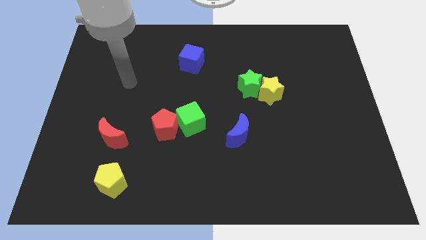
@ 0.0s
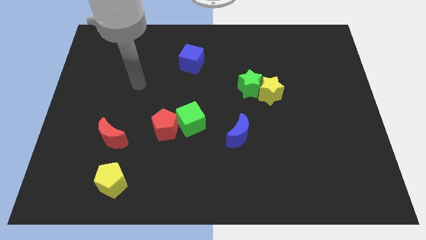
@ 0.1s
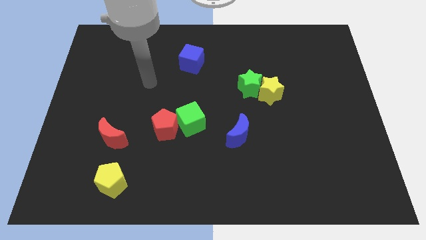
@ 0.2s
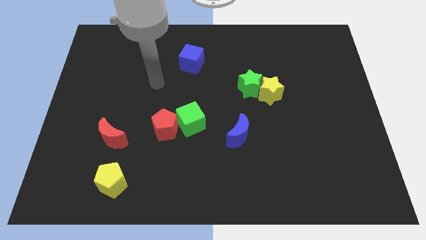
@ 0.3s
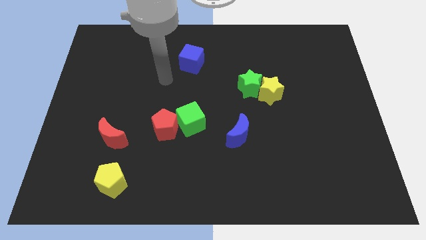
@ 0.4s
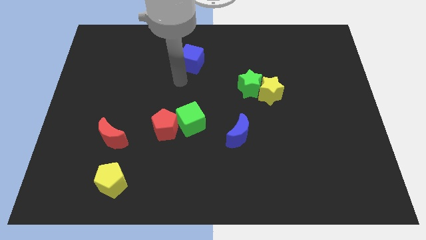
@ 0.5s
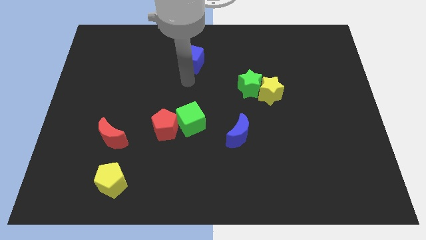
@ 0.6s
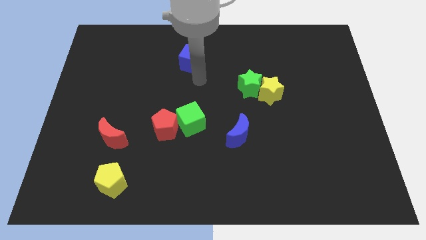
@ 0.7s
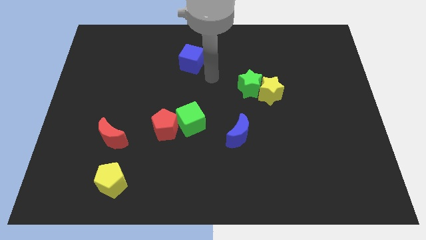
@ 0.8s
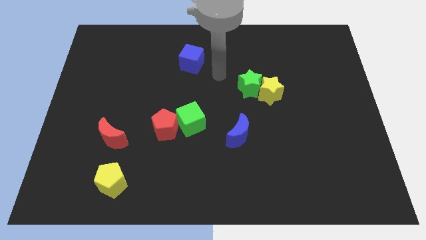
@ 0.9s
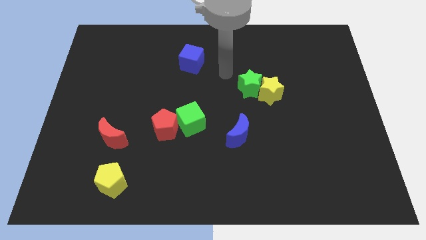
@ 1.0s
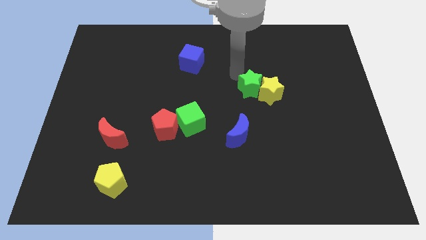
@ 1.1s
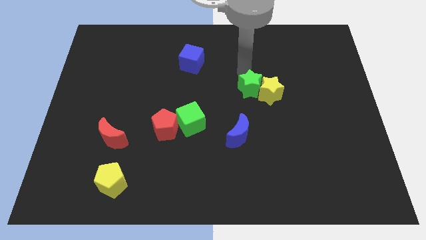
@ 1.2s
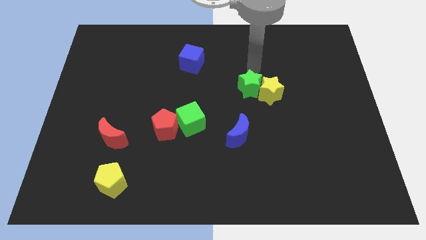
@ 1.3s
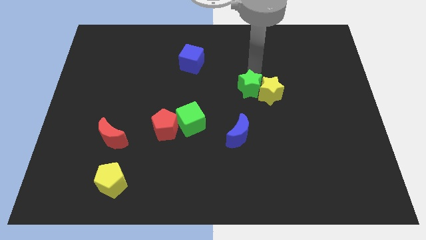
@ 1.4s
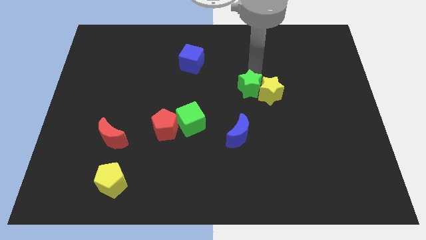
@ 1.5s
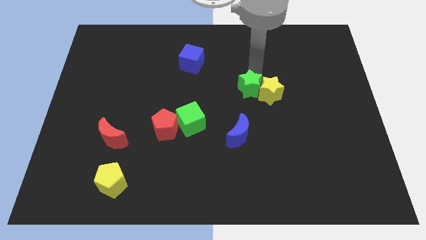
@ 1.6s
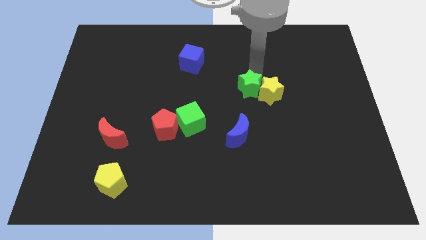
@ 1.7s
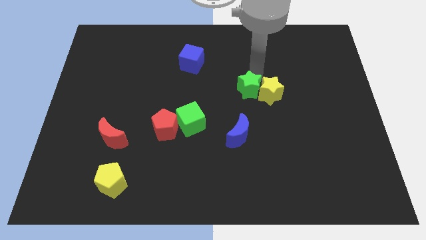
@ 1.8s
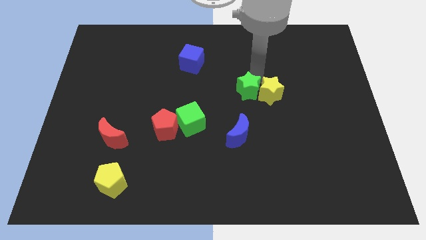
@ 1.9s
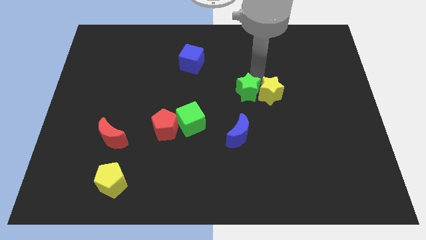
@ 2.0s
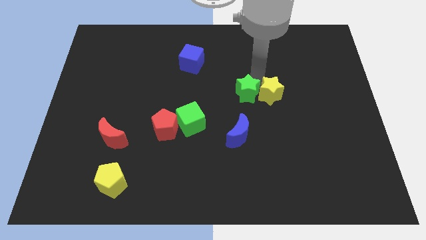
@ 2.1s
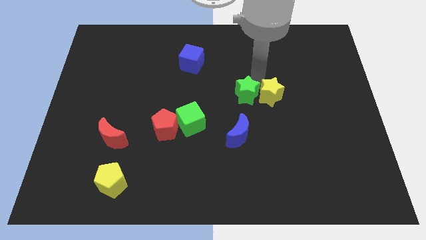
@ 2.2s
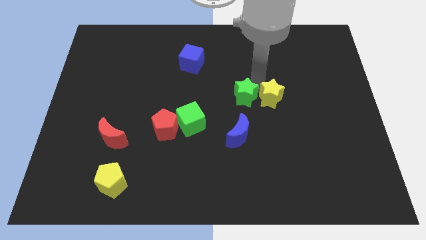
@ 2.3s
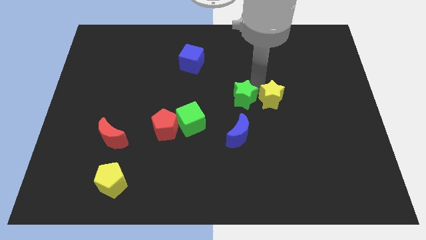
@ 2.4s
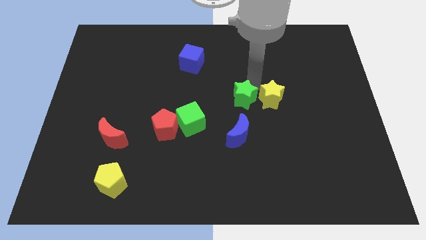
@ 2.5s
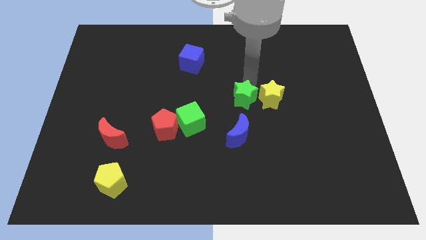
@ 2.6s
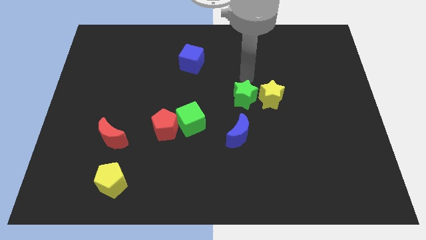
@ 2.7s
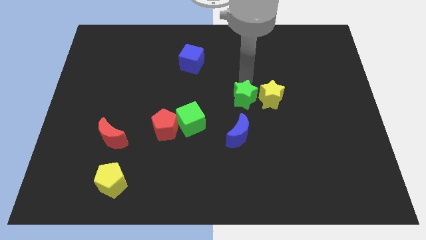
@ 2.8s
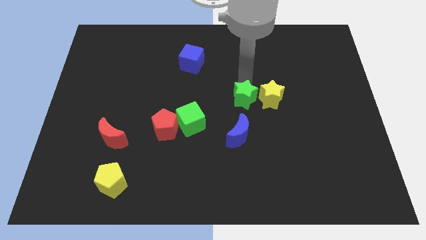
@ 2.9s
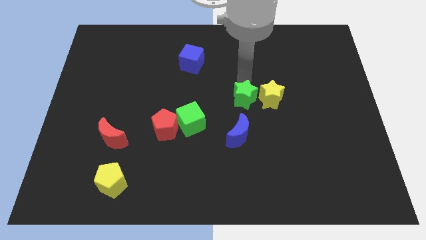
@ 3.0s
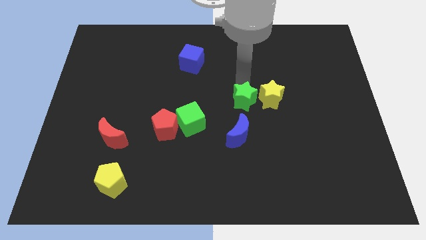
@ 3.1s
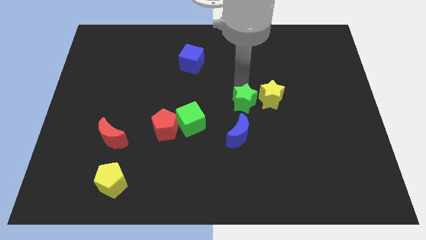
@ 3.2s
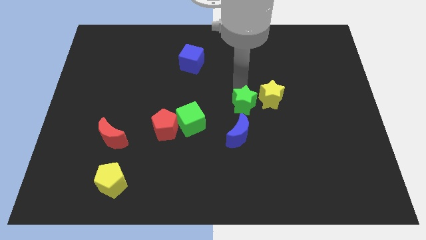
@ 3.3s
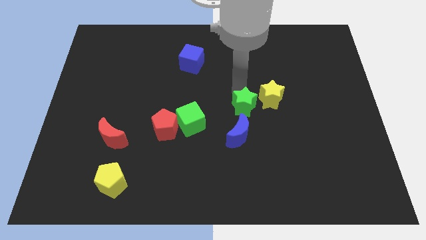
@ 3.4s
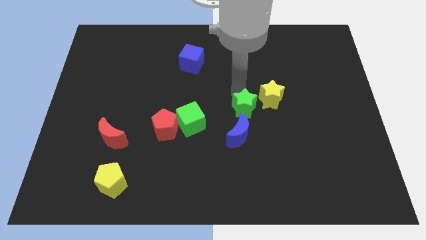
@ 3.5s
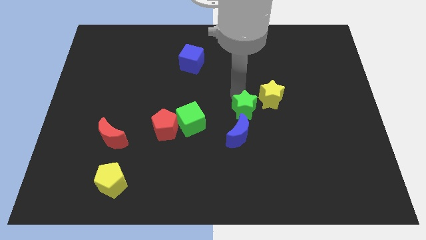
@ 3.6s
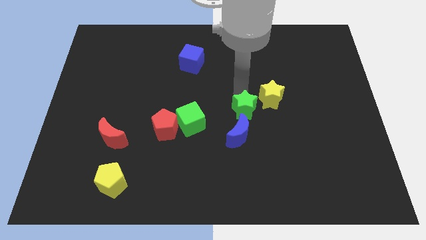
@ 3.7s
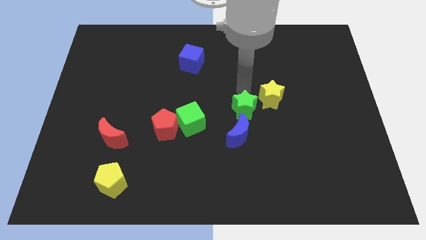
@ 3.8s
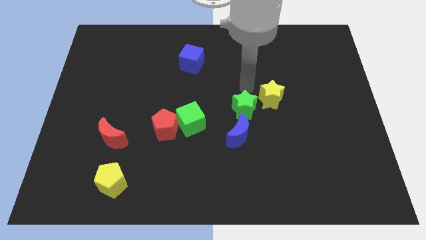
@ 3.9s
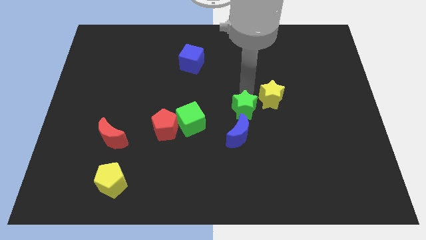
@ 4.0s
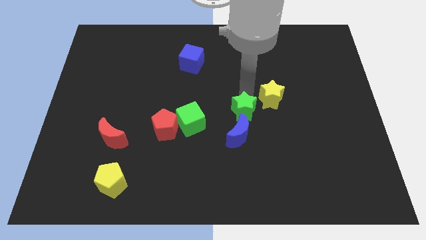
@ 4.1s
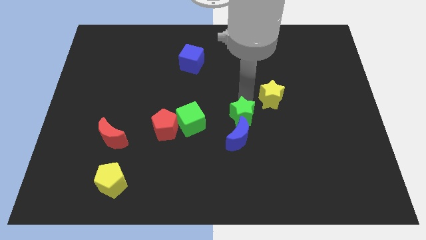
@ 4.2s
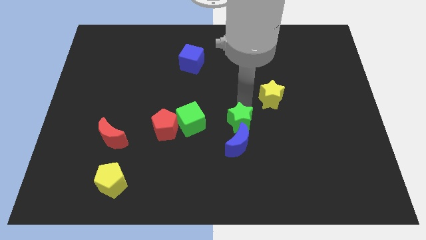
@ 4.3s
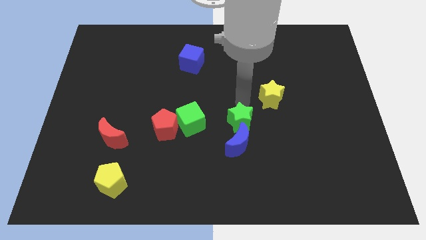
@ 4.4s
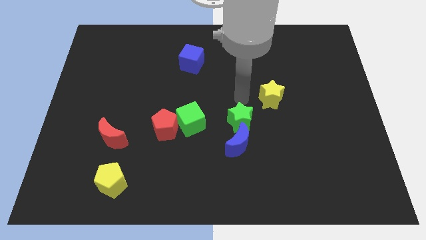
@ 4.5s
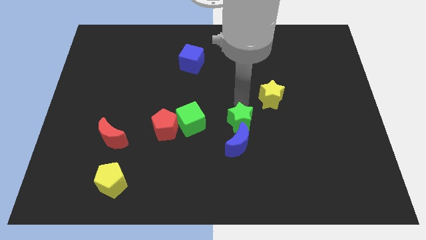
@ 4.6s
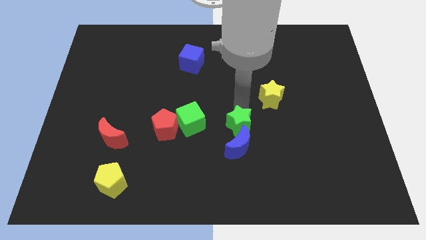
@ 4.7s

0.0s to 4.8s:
push the green star next to the blue moon

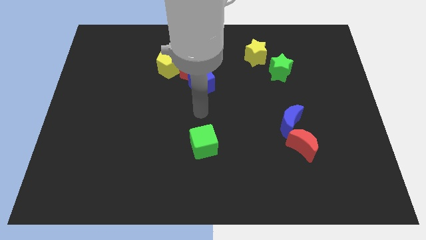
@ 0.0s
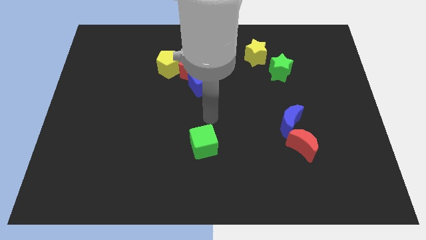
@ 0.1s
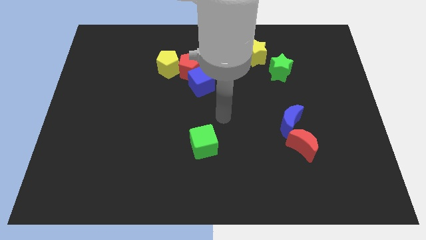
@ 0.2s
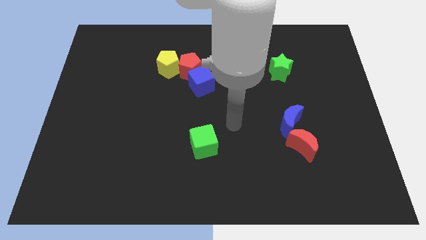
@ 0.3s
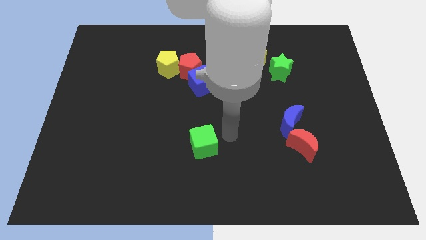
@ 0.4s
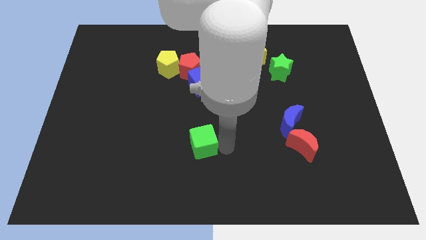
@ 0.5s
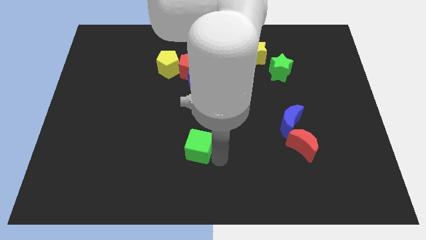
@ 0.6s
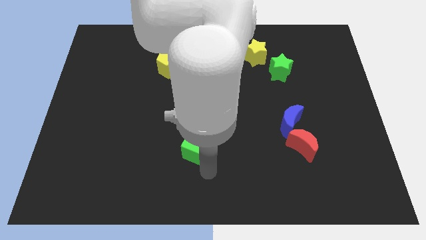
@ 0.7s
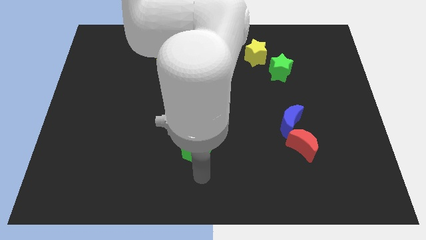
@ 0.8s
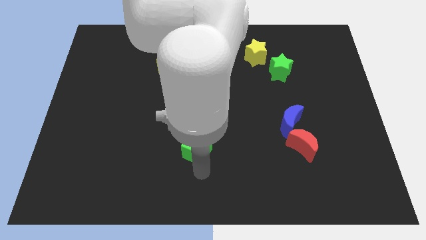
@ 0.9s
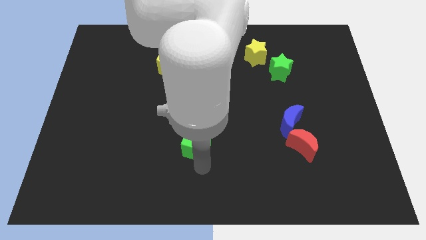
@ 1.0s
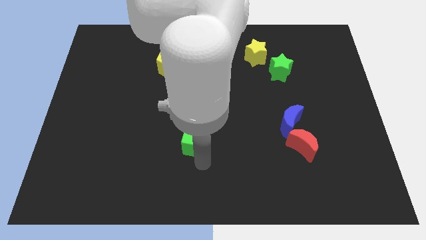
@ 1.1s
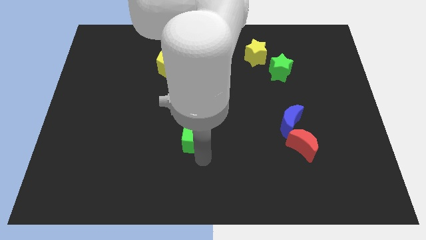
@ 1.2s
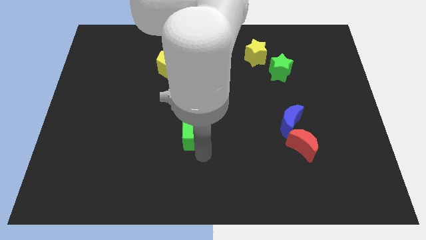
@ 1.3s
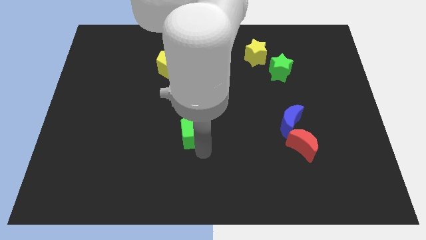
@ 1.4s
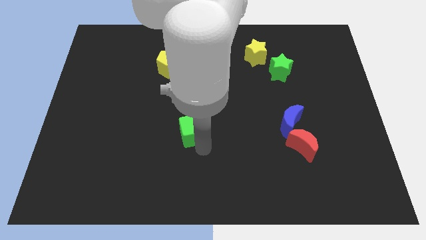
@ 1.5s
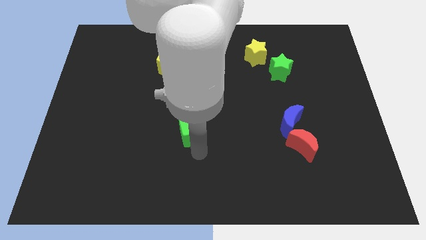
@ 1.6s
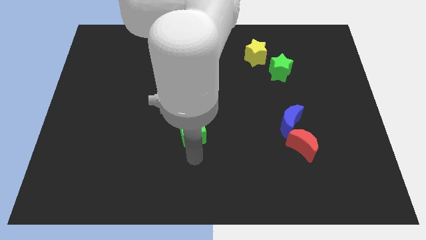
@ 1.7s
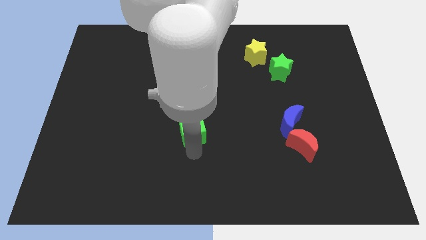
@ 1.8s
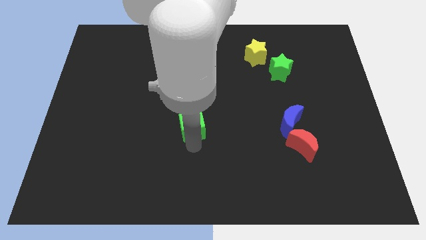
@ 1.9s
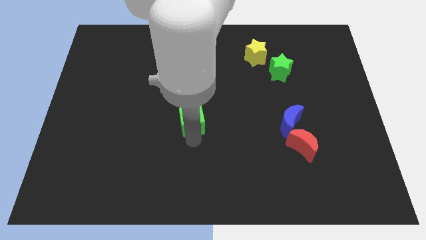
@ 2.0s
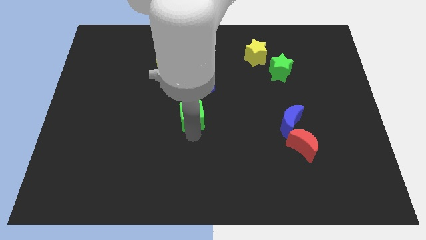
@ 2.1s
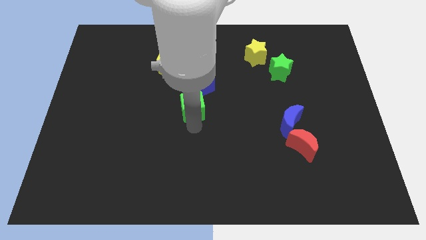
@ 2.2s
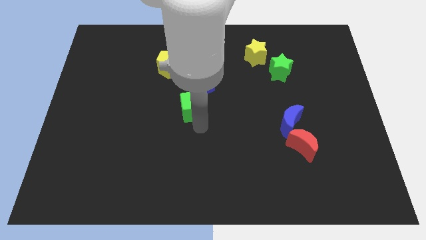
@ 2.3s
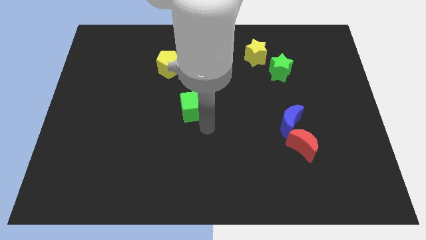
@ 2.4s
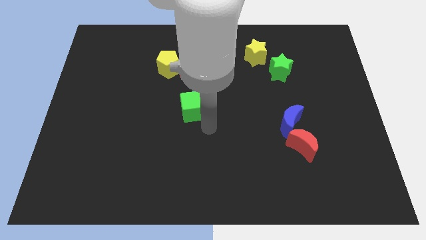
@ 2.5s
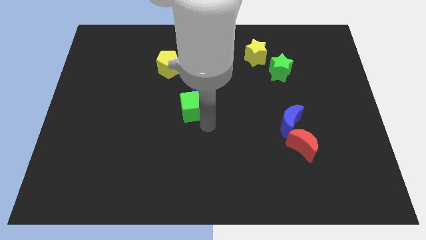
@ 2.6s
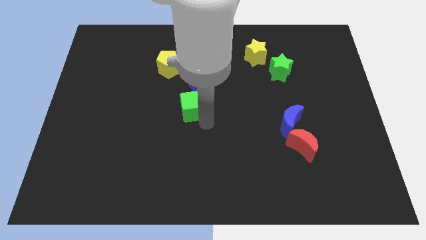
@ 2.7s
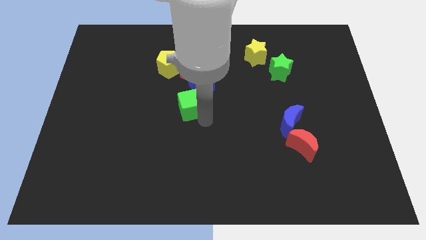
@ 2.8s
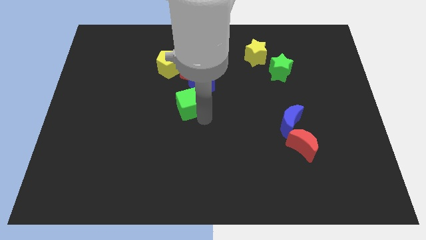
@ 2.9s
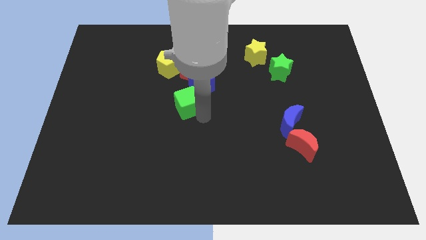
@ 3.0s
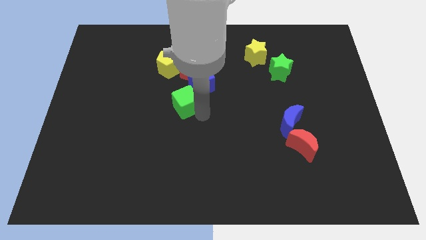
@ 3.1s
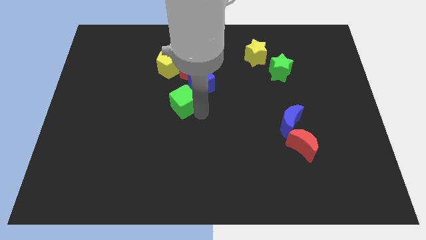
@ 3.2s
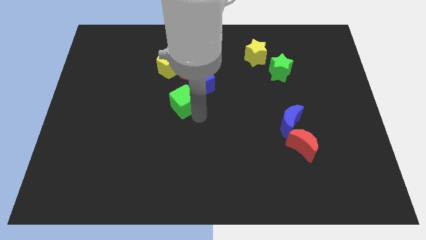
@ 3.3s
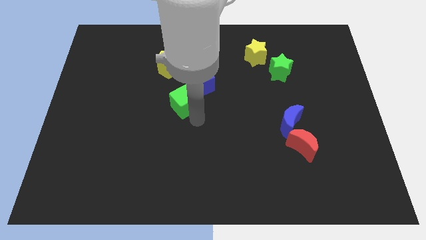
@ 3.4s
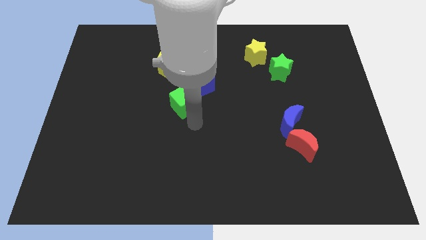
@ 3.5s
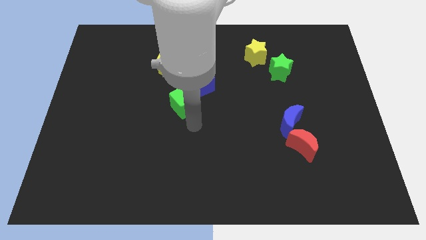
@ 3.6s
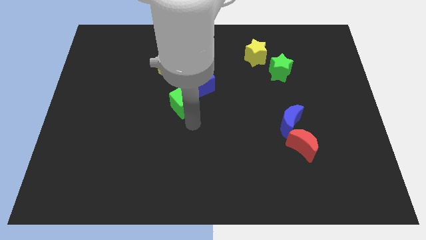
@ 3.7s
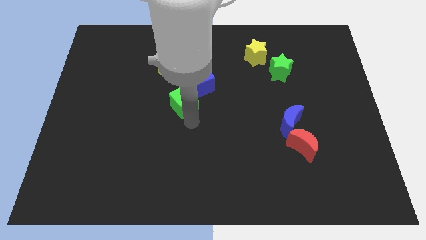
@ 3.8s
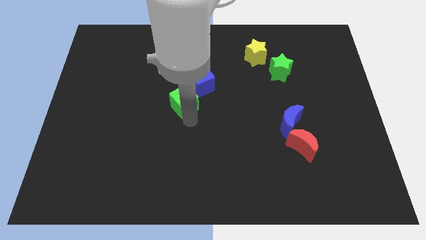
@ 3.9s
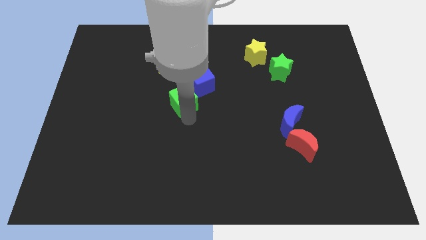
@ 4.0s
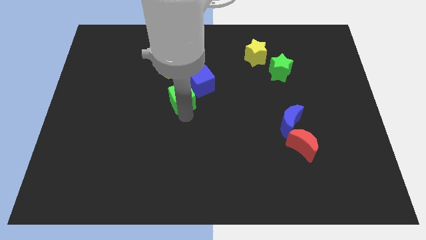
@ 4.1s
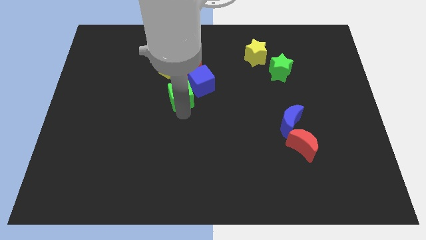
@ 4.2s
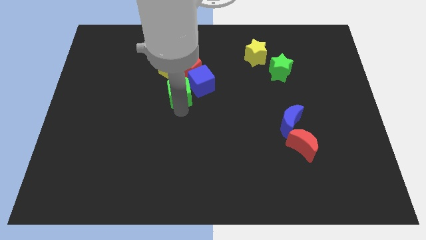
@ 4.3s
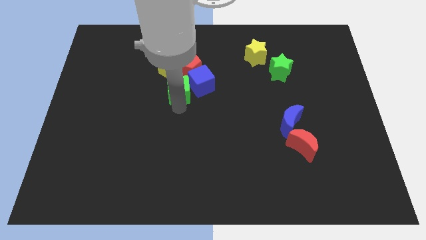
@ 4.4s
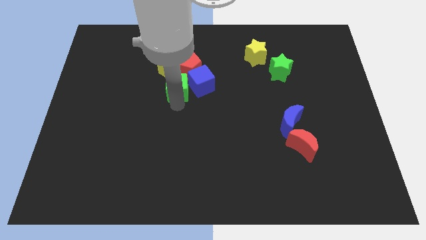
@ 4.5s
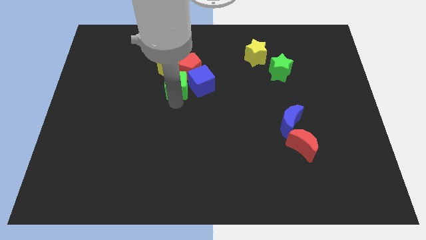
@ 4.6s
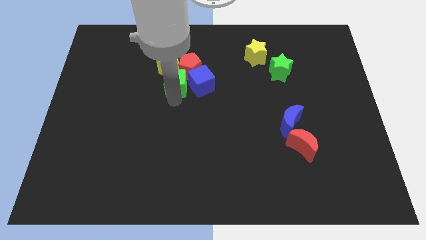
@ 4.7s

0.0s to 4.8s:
put the green cube towards the red pentagon
